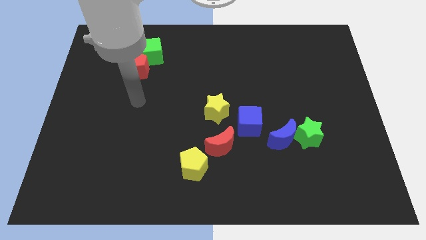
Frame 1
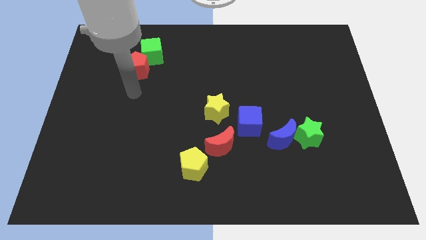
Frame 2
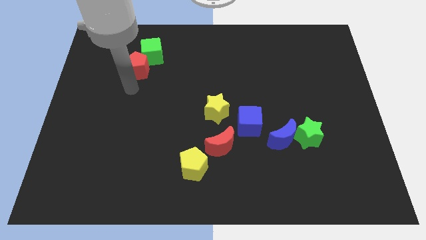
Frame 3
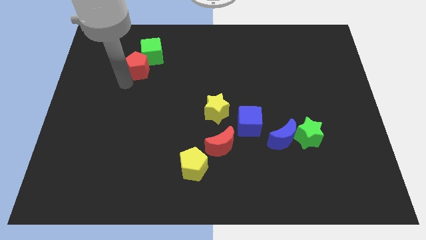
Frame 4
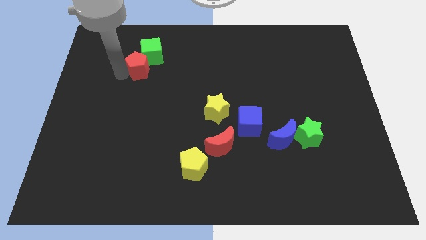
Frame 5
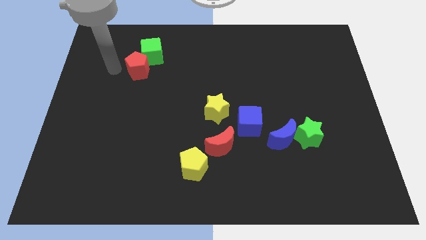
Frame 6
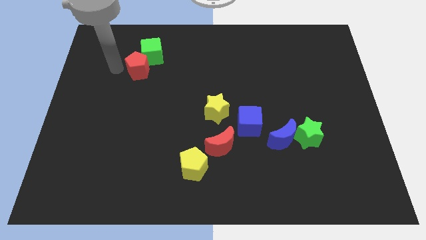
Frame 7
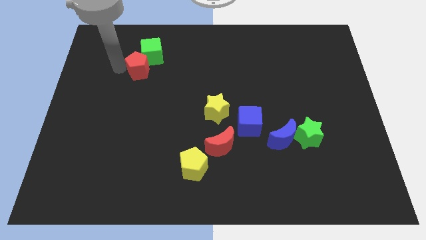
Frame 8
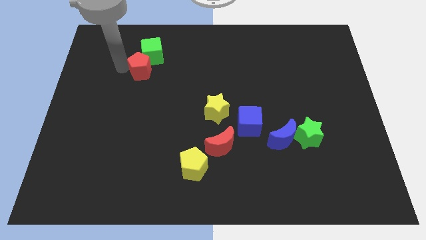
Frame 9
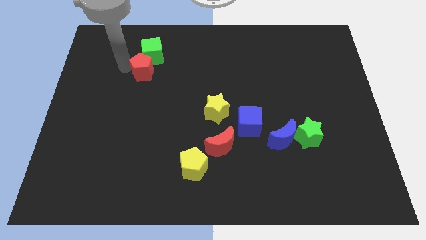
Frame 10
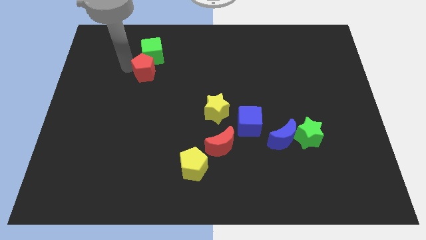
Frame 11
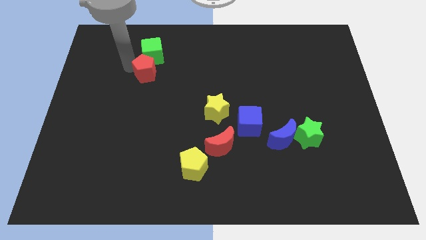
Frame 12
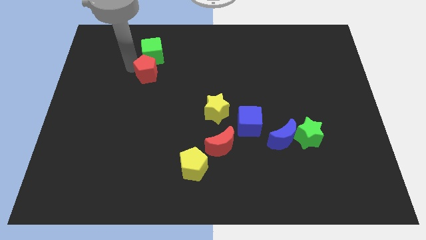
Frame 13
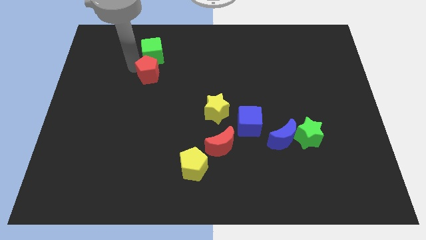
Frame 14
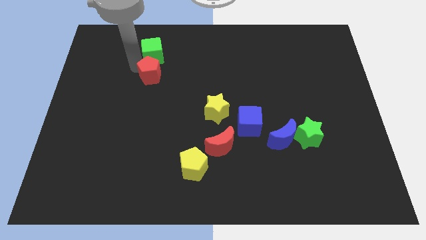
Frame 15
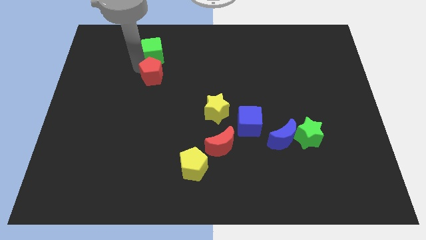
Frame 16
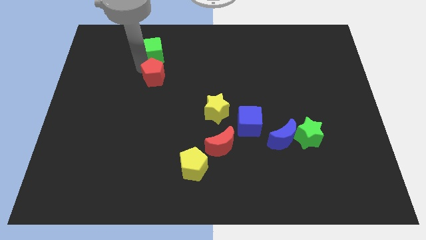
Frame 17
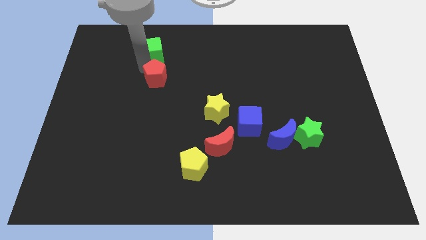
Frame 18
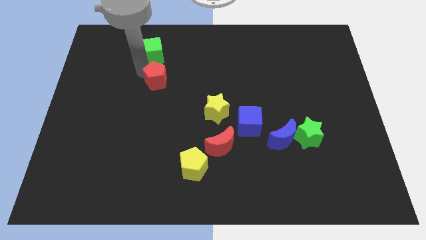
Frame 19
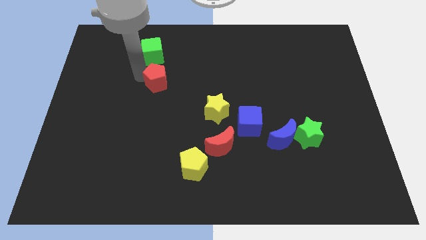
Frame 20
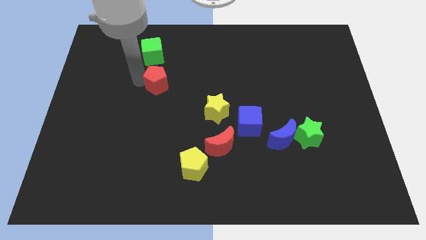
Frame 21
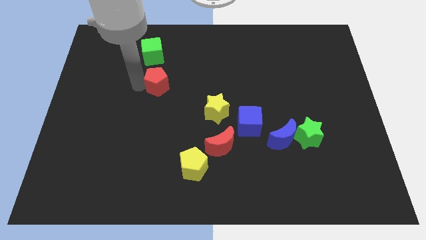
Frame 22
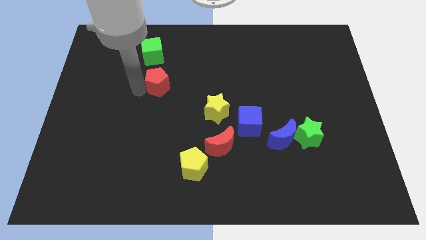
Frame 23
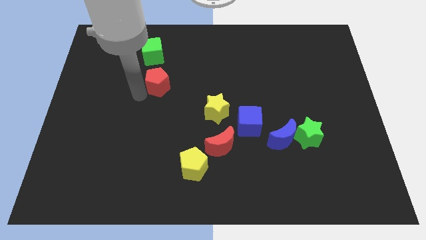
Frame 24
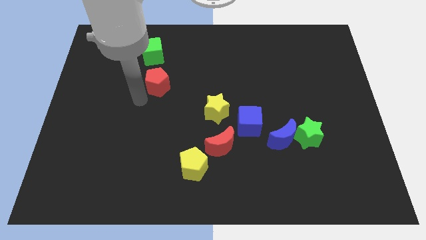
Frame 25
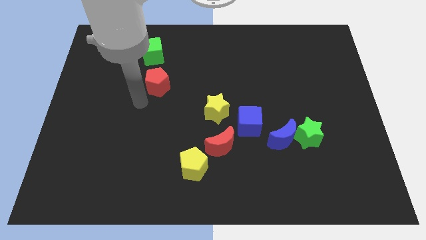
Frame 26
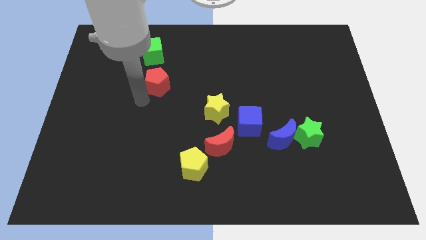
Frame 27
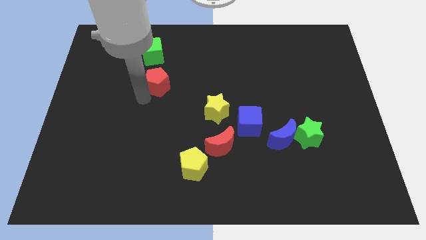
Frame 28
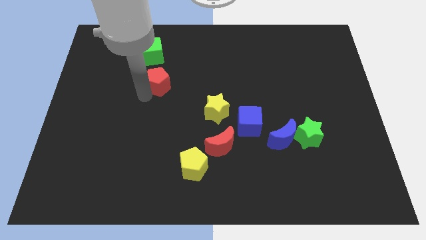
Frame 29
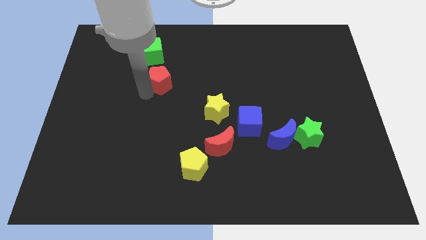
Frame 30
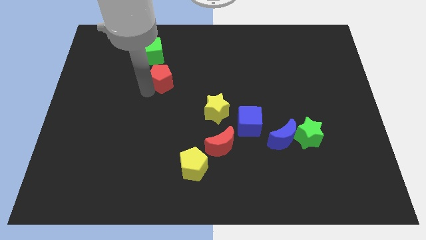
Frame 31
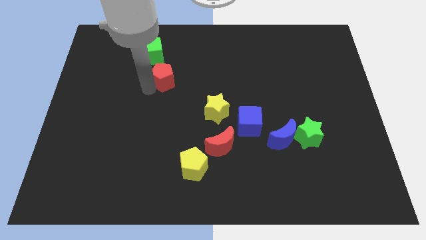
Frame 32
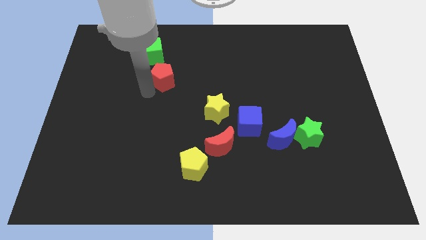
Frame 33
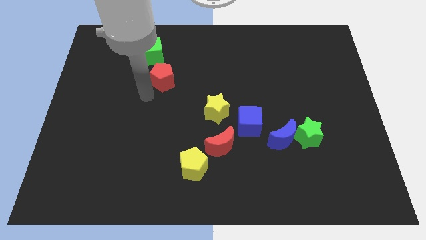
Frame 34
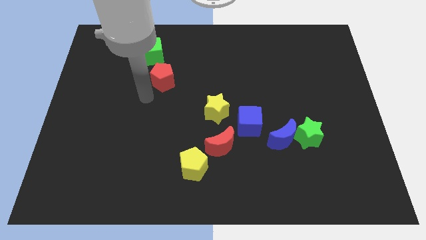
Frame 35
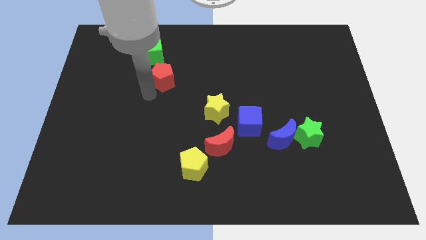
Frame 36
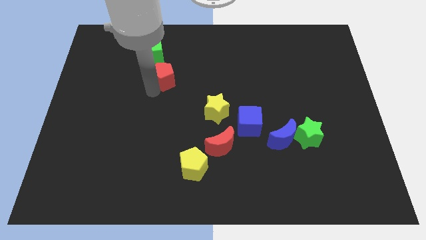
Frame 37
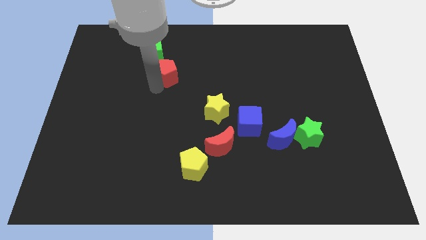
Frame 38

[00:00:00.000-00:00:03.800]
slightly move the red pentagon right

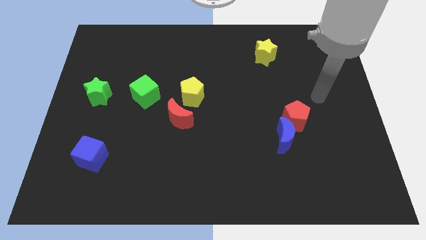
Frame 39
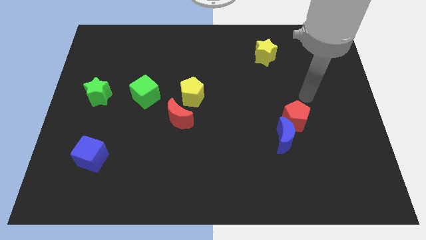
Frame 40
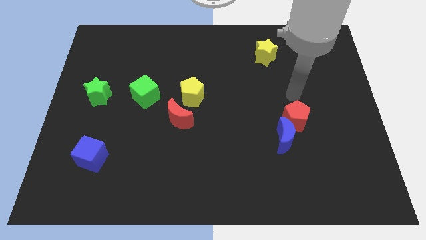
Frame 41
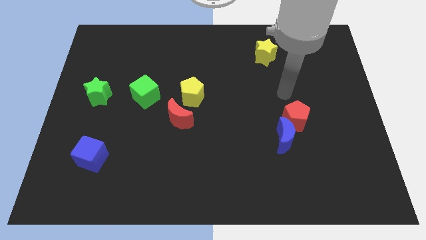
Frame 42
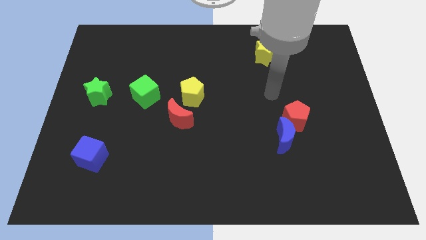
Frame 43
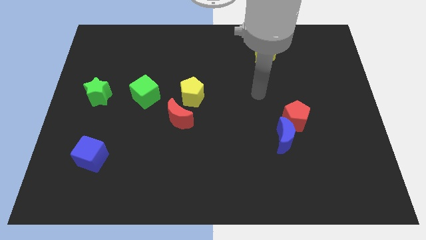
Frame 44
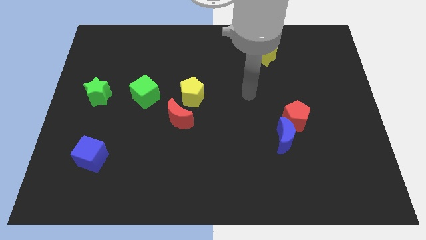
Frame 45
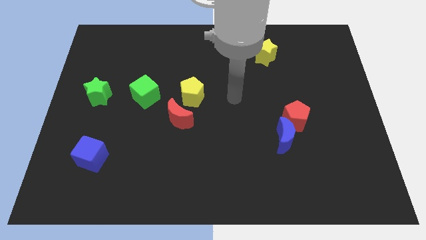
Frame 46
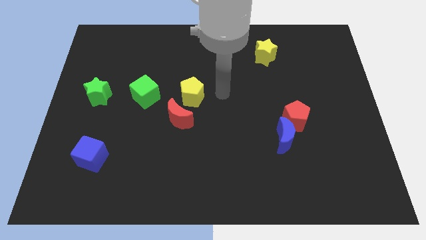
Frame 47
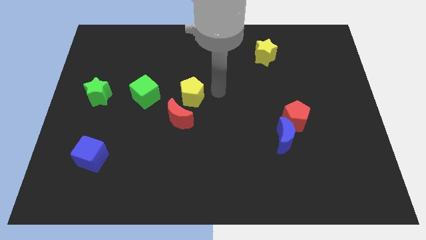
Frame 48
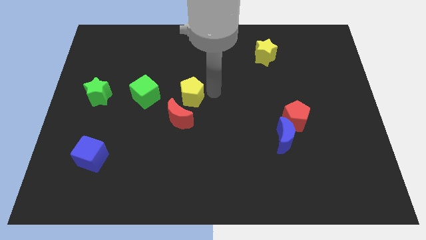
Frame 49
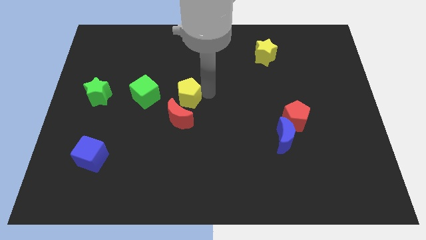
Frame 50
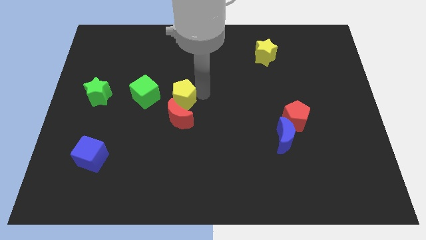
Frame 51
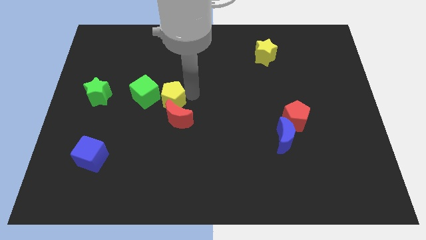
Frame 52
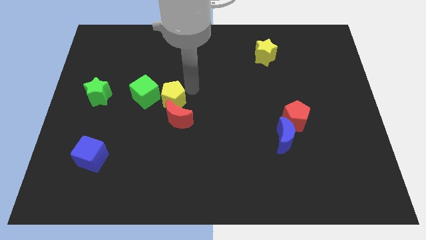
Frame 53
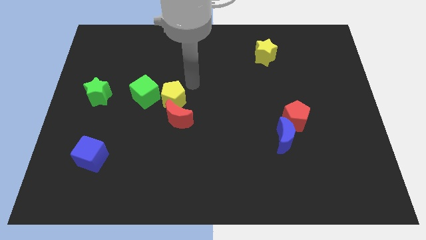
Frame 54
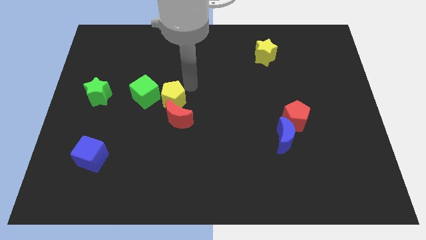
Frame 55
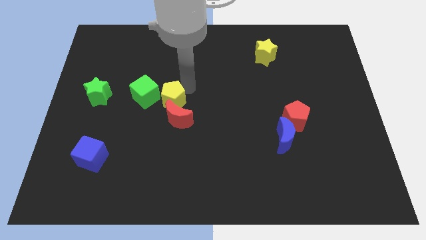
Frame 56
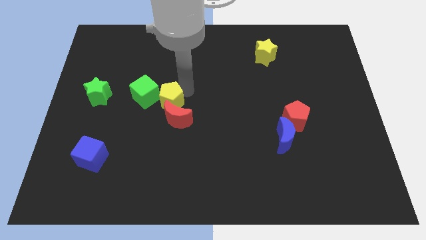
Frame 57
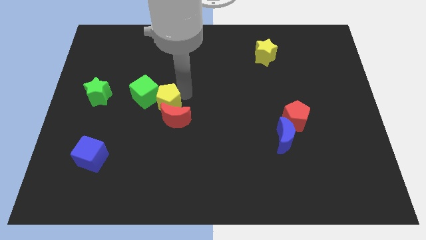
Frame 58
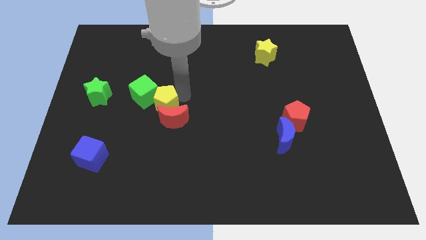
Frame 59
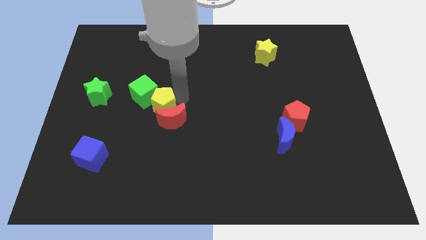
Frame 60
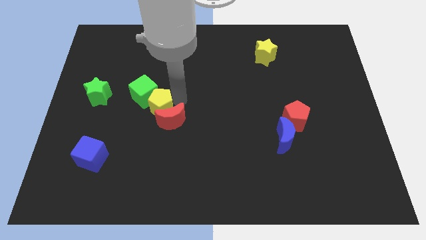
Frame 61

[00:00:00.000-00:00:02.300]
slightly slide the yellow pentagon downwards and left

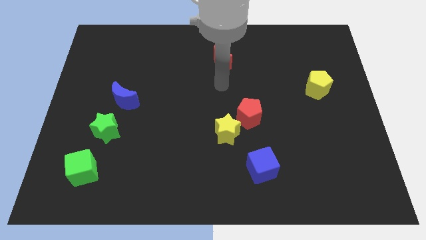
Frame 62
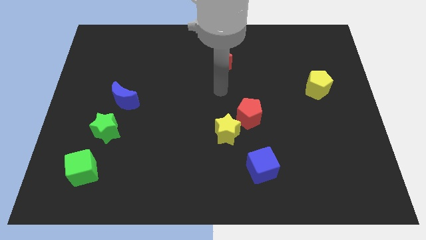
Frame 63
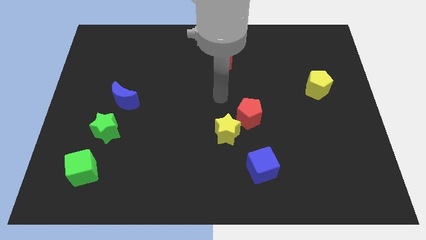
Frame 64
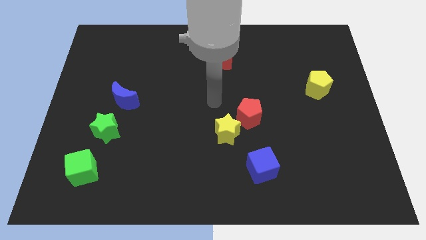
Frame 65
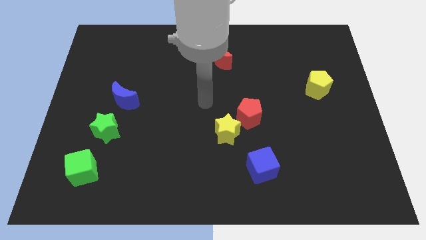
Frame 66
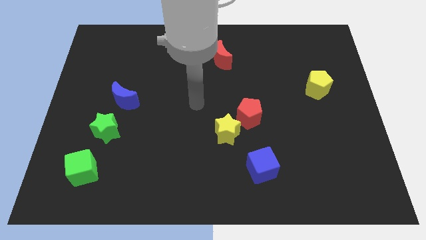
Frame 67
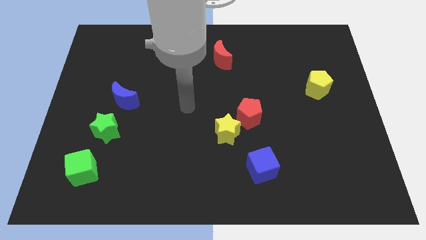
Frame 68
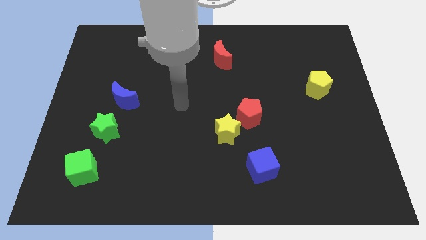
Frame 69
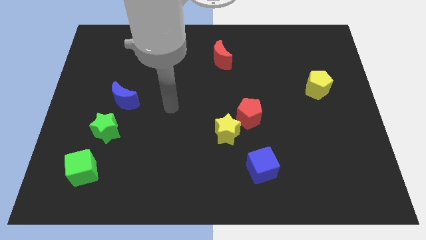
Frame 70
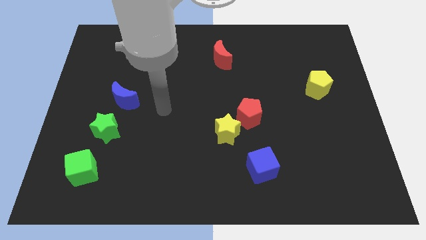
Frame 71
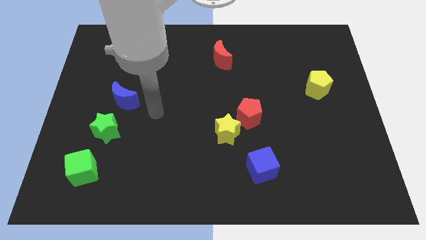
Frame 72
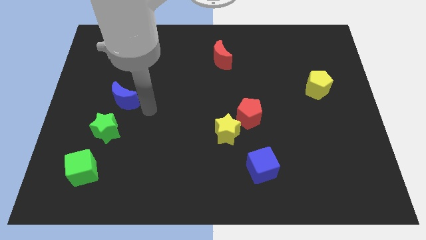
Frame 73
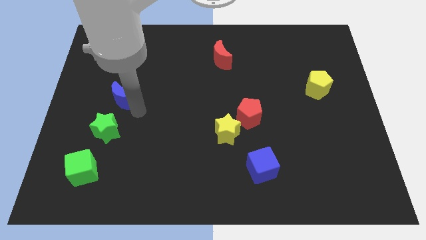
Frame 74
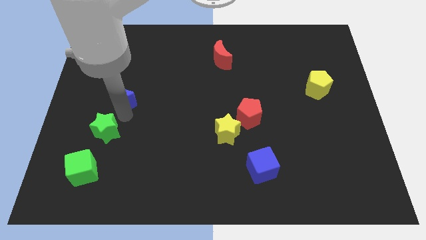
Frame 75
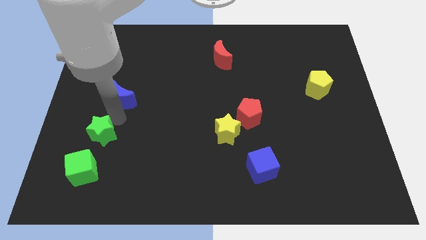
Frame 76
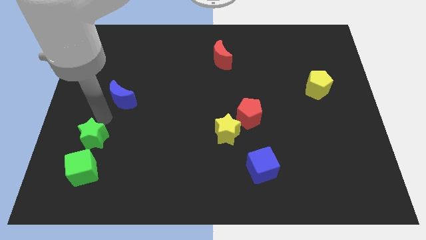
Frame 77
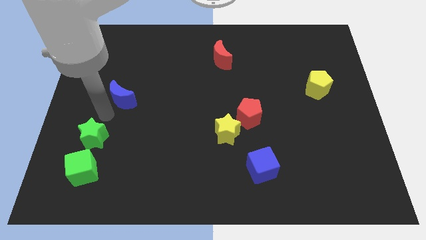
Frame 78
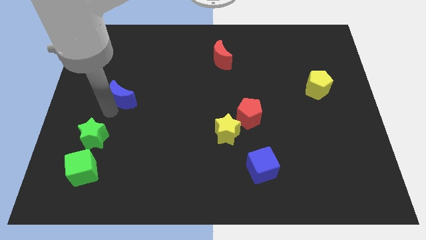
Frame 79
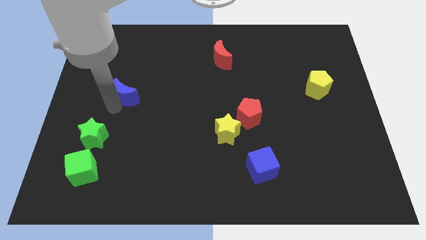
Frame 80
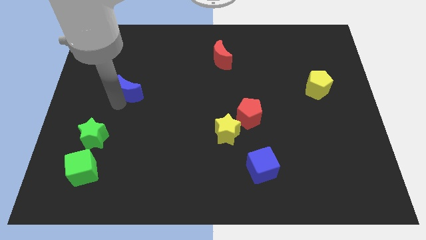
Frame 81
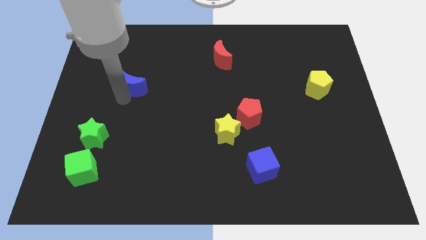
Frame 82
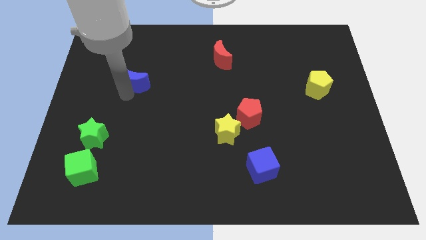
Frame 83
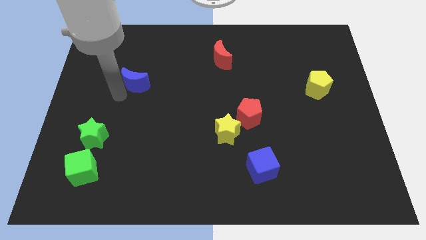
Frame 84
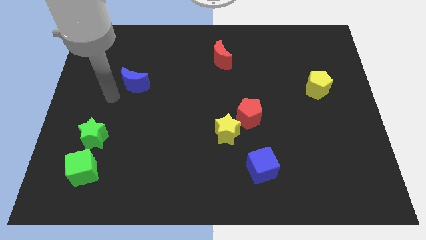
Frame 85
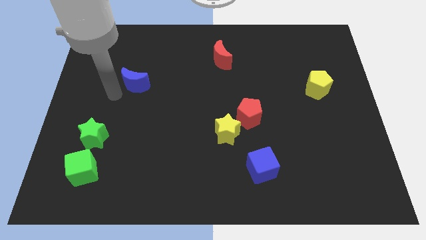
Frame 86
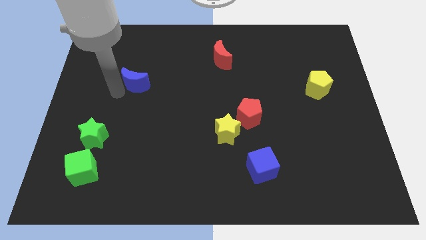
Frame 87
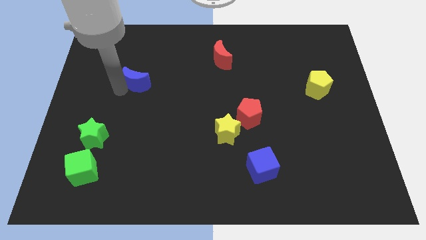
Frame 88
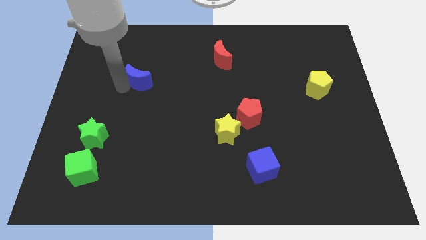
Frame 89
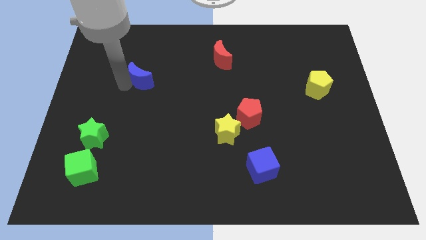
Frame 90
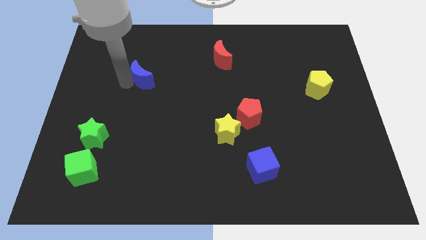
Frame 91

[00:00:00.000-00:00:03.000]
slide the blue moon up and then to the right slightly
